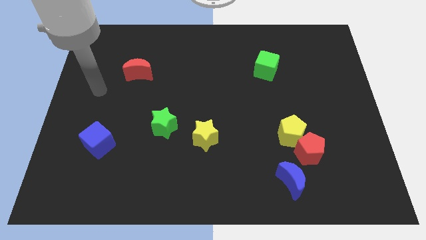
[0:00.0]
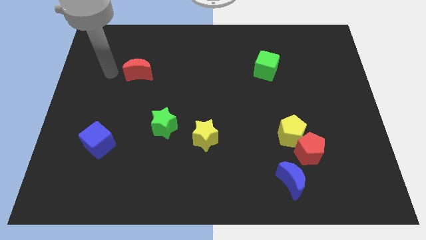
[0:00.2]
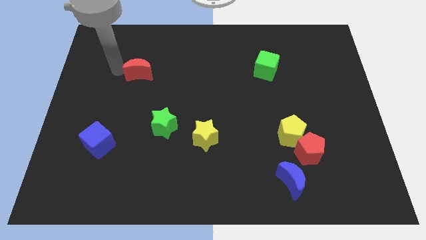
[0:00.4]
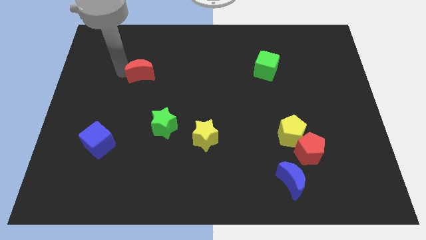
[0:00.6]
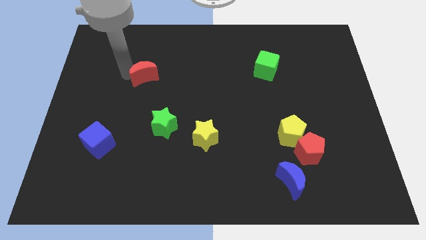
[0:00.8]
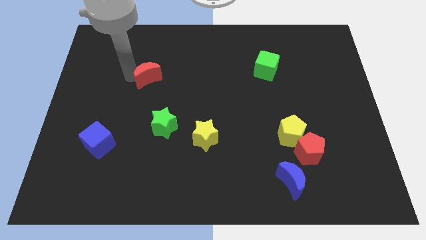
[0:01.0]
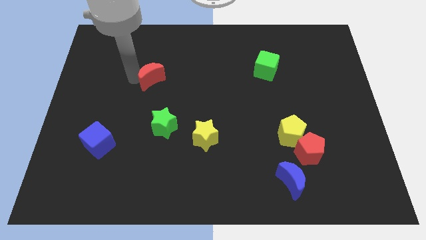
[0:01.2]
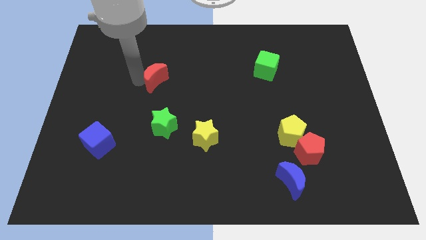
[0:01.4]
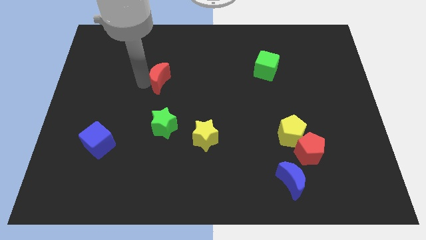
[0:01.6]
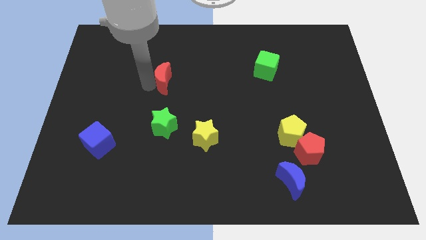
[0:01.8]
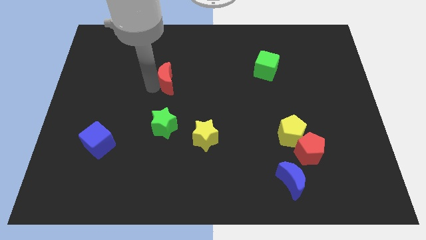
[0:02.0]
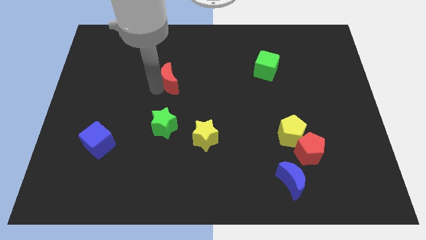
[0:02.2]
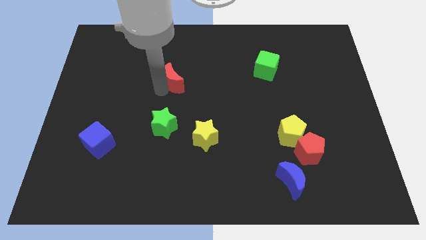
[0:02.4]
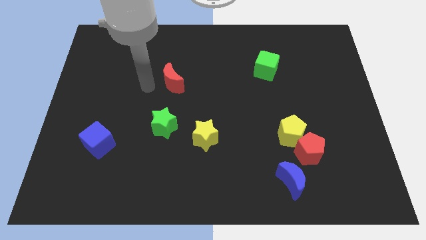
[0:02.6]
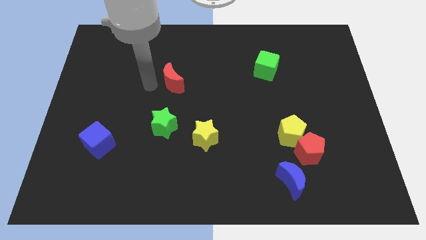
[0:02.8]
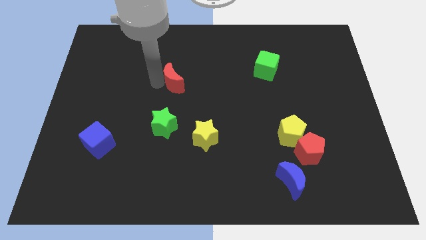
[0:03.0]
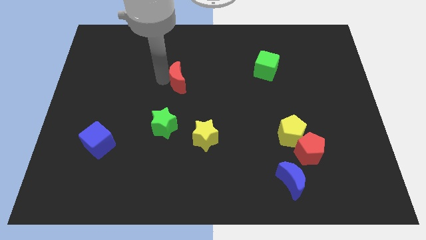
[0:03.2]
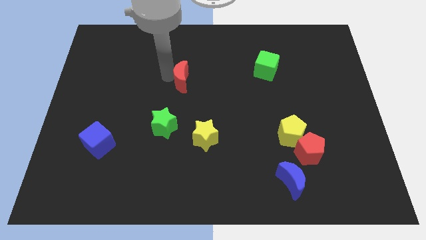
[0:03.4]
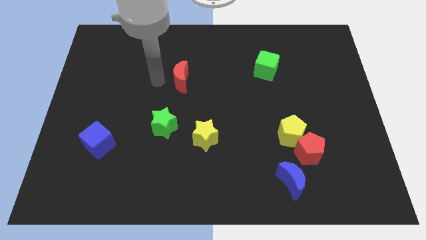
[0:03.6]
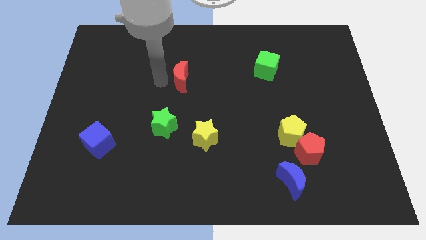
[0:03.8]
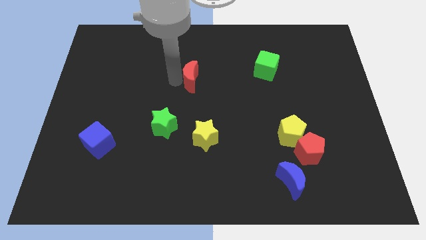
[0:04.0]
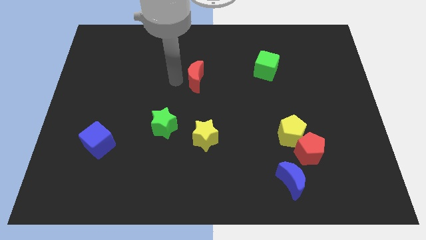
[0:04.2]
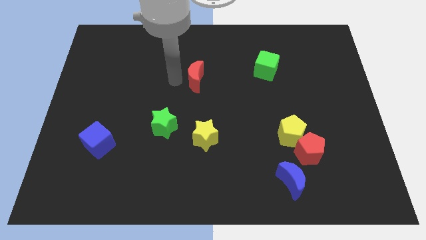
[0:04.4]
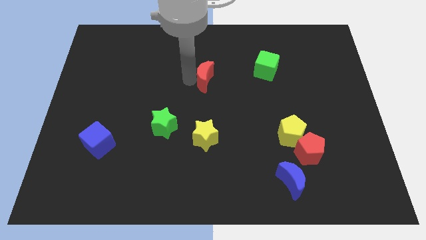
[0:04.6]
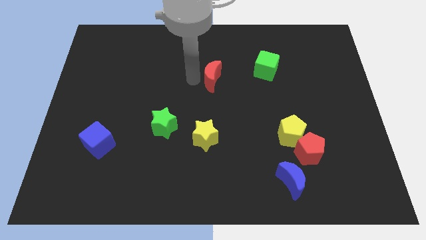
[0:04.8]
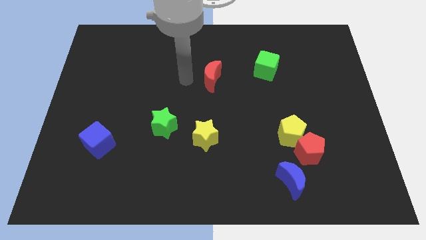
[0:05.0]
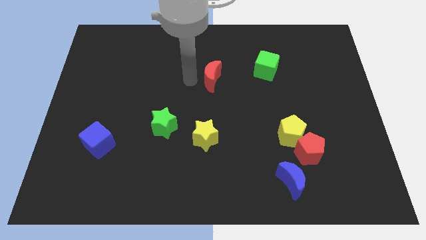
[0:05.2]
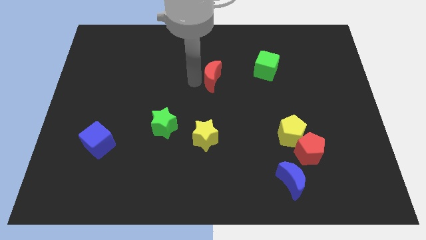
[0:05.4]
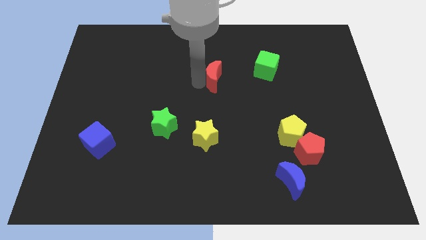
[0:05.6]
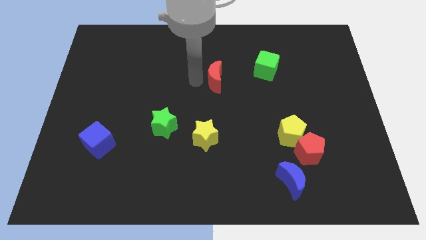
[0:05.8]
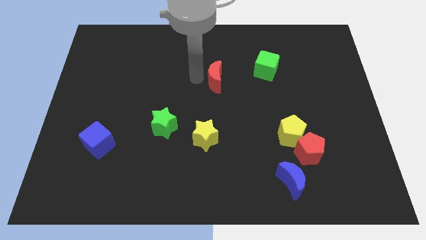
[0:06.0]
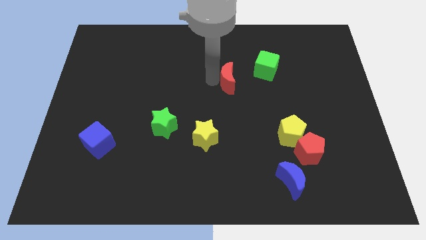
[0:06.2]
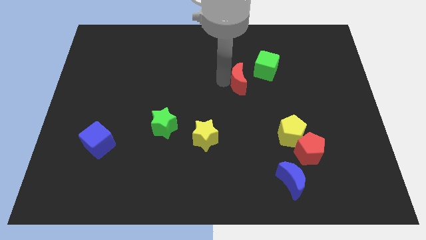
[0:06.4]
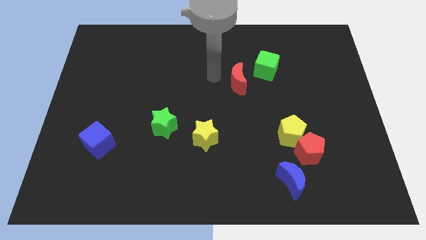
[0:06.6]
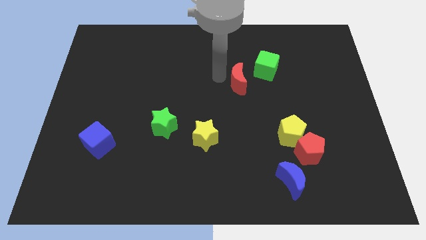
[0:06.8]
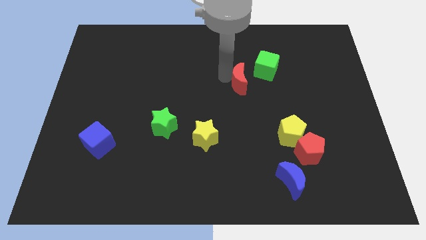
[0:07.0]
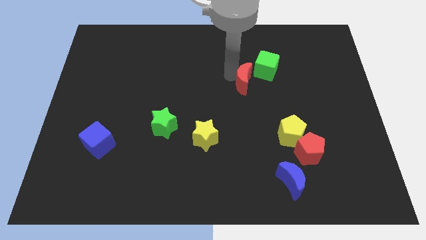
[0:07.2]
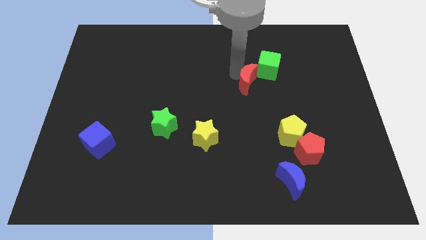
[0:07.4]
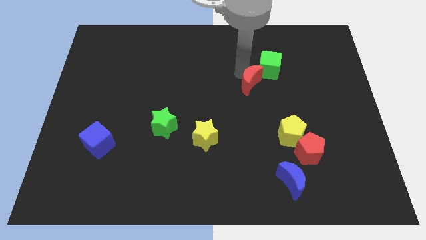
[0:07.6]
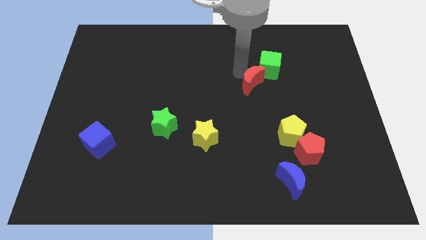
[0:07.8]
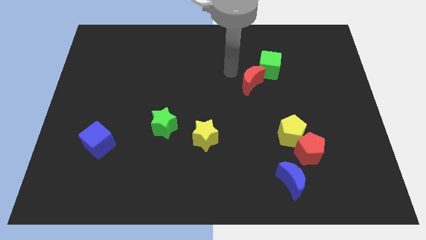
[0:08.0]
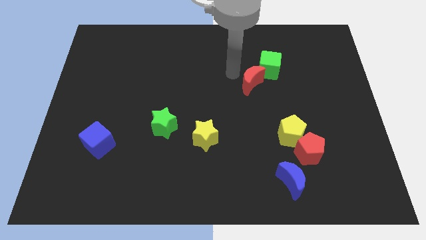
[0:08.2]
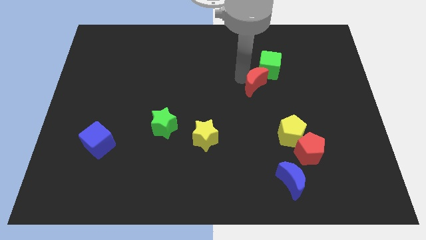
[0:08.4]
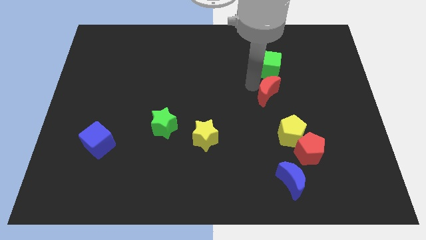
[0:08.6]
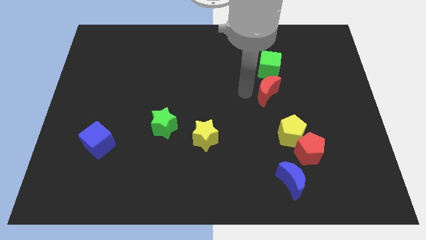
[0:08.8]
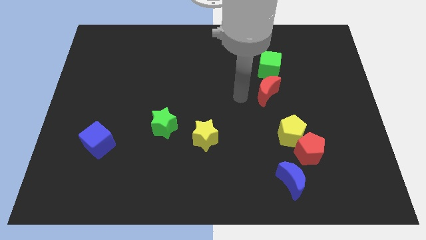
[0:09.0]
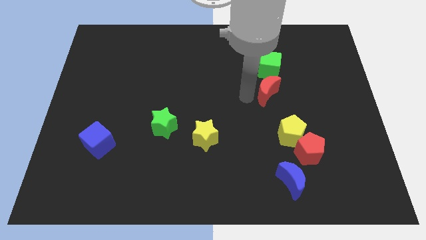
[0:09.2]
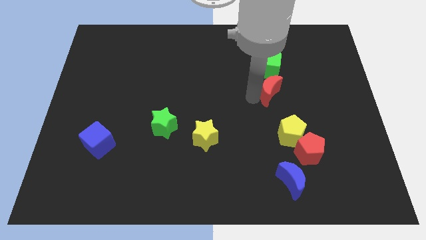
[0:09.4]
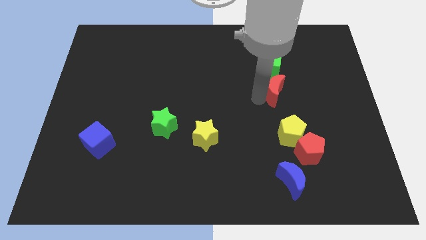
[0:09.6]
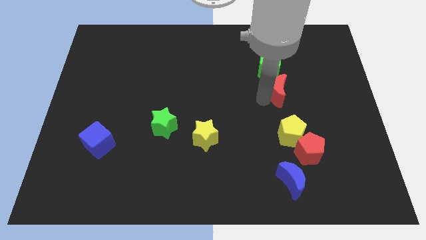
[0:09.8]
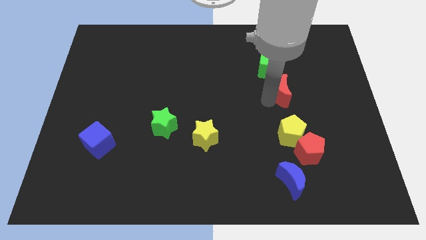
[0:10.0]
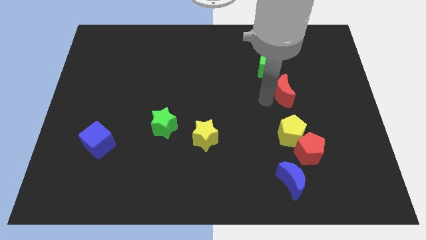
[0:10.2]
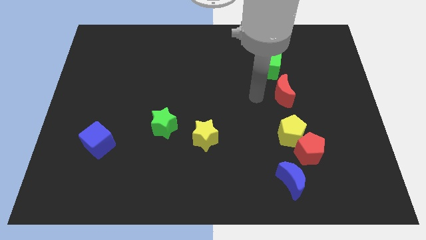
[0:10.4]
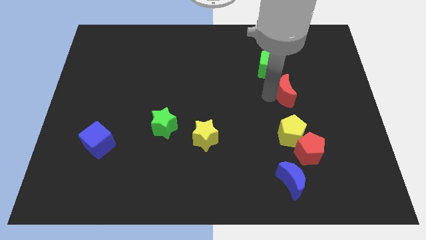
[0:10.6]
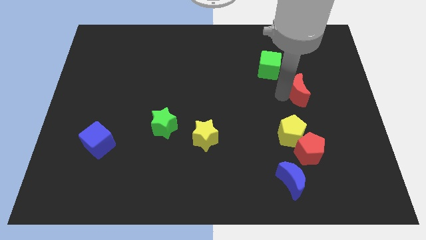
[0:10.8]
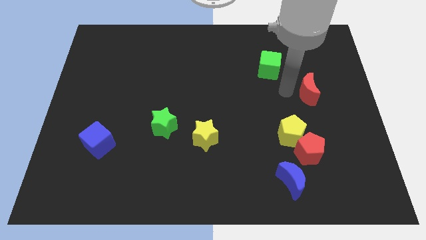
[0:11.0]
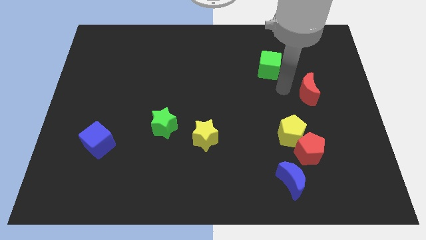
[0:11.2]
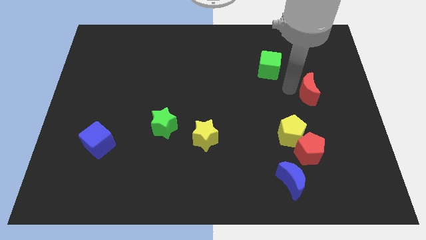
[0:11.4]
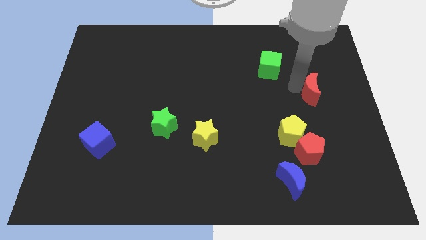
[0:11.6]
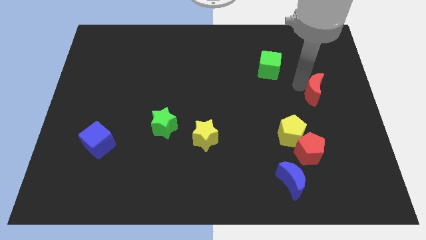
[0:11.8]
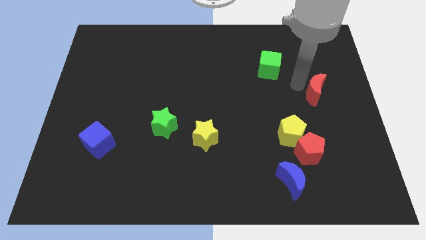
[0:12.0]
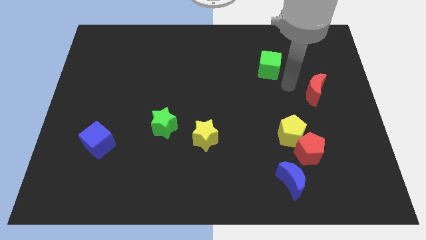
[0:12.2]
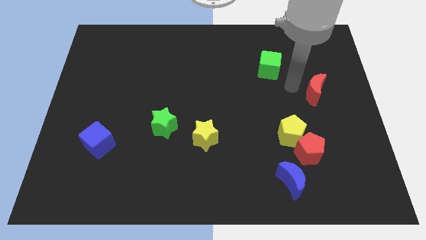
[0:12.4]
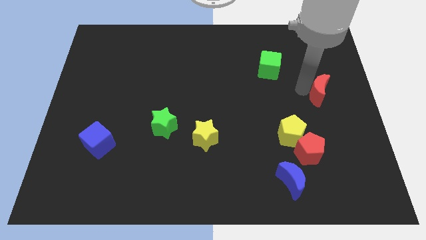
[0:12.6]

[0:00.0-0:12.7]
put the red moon to the right side
